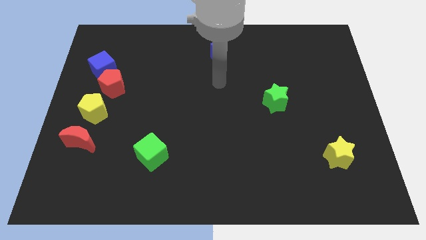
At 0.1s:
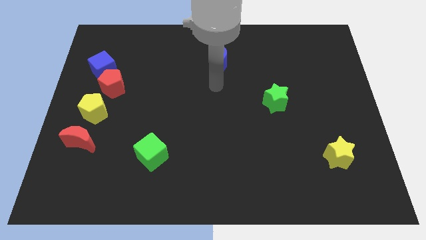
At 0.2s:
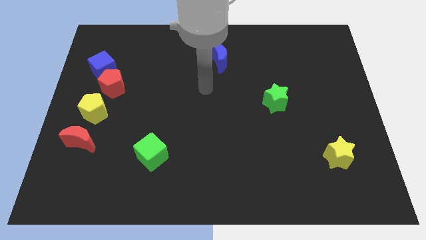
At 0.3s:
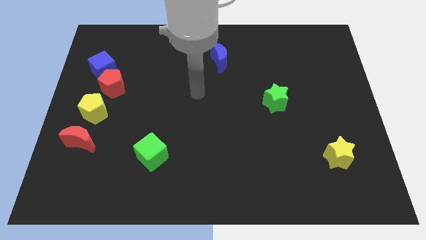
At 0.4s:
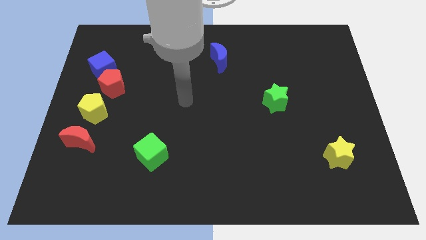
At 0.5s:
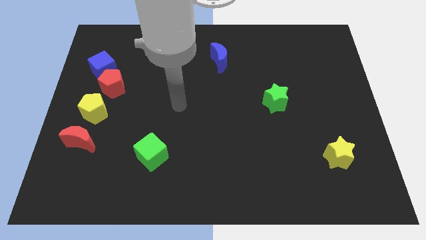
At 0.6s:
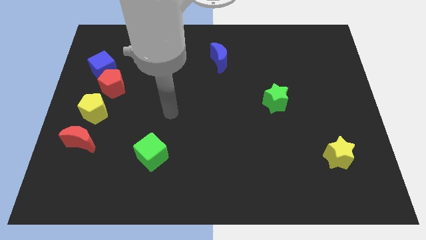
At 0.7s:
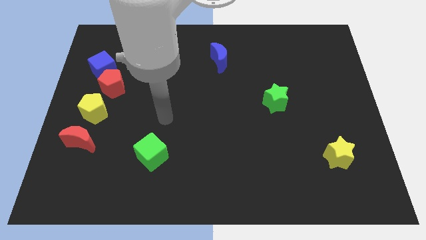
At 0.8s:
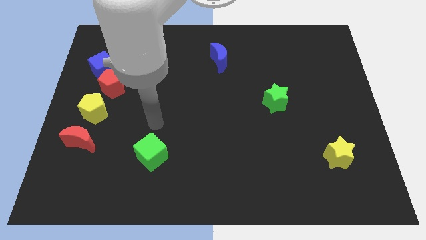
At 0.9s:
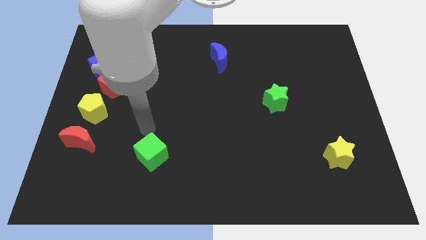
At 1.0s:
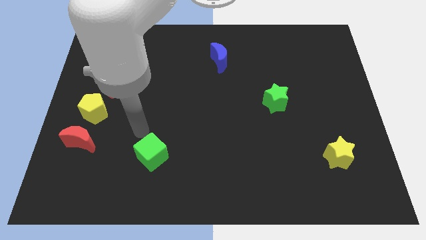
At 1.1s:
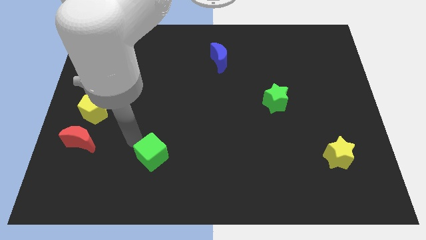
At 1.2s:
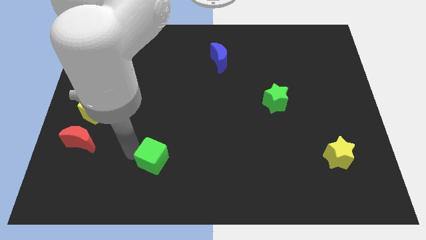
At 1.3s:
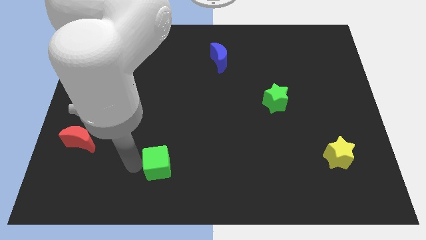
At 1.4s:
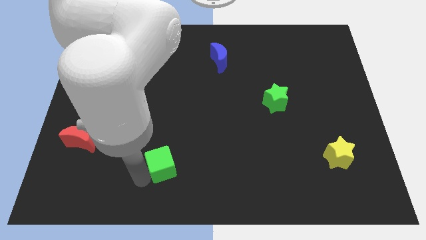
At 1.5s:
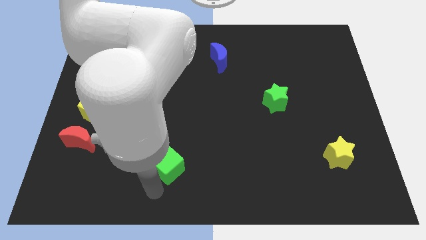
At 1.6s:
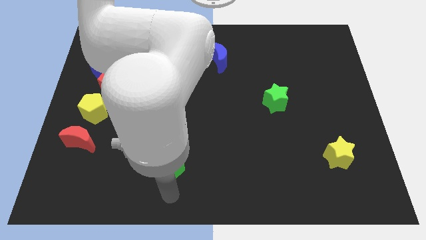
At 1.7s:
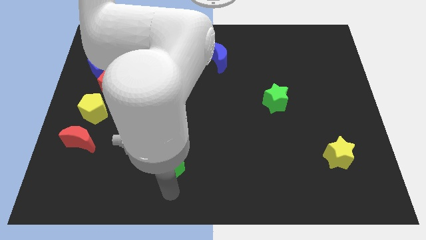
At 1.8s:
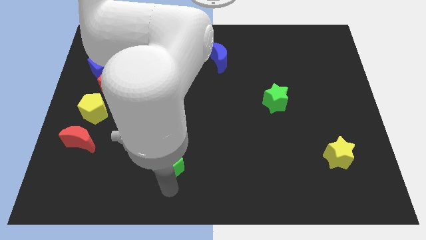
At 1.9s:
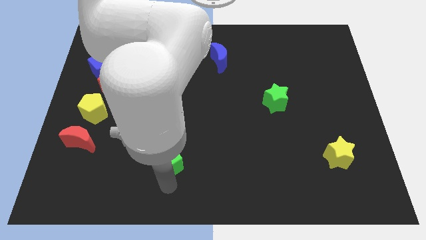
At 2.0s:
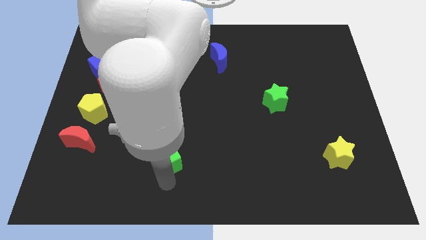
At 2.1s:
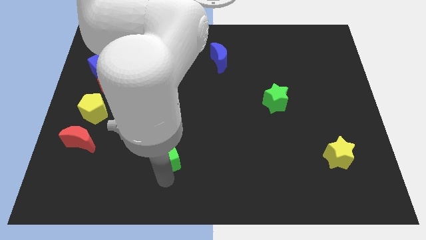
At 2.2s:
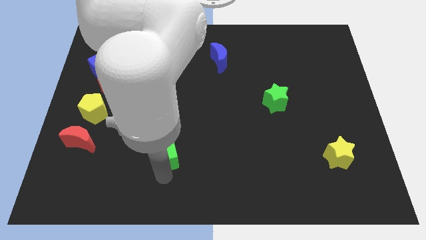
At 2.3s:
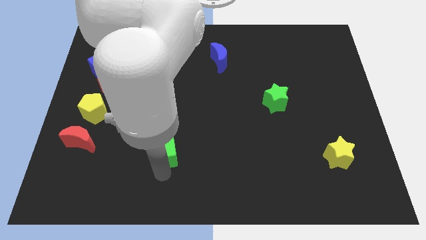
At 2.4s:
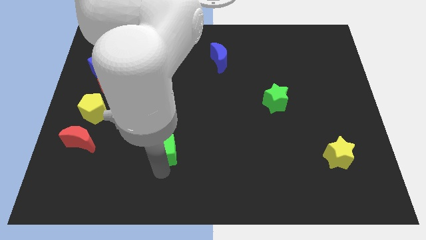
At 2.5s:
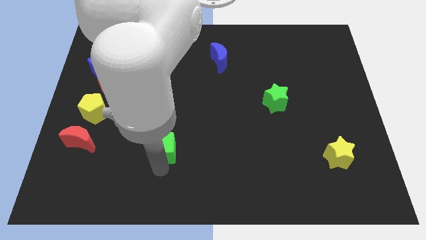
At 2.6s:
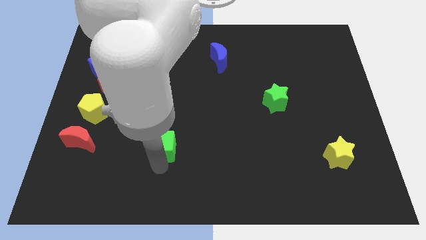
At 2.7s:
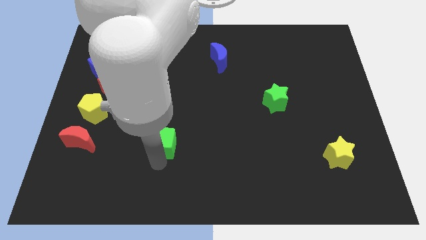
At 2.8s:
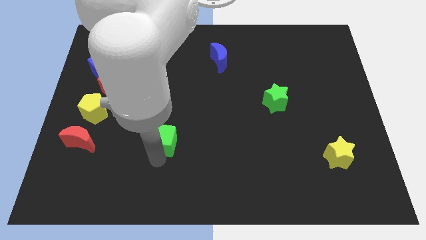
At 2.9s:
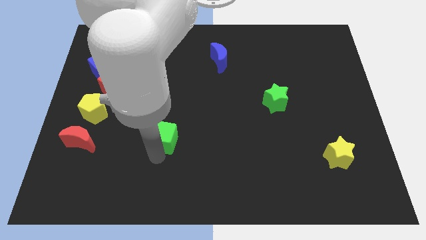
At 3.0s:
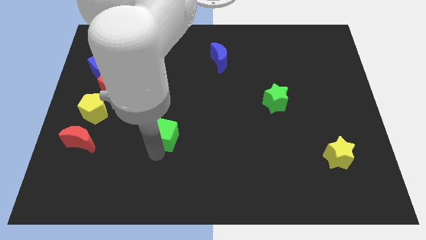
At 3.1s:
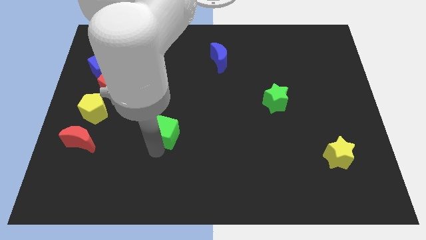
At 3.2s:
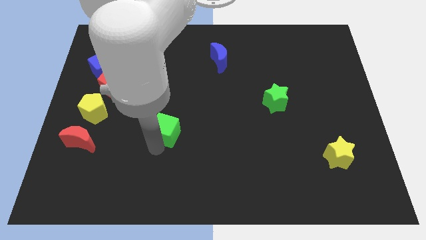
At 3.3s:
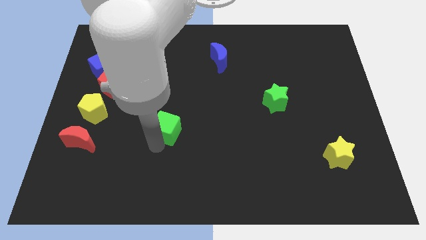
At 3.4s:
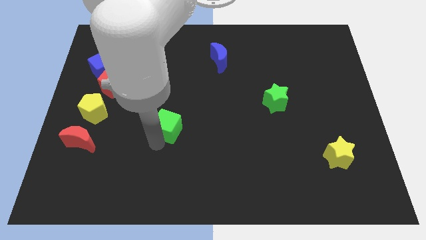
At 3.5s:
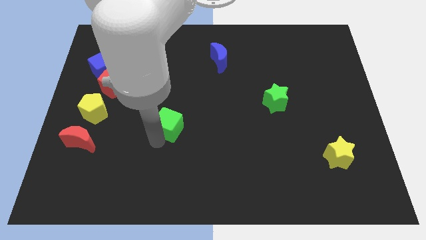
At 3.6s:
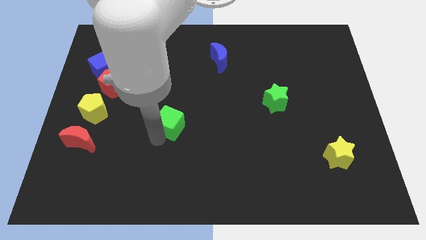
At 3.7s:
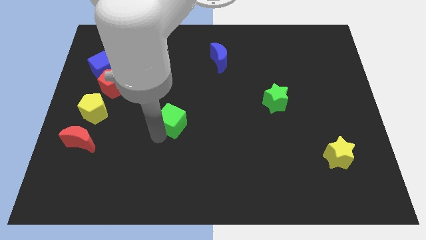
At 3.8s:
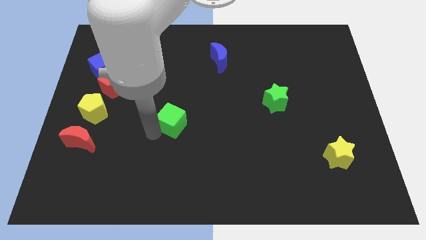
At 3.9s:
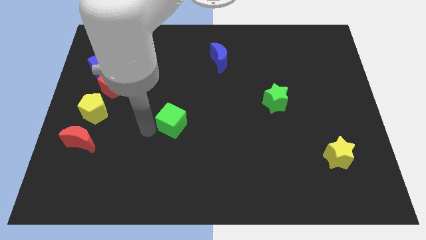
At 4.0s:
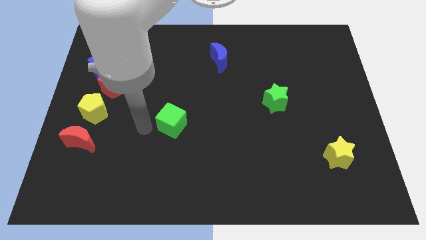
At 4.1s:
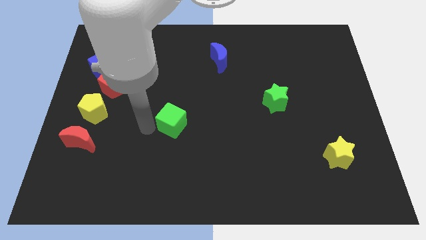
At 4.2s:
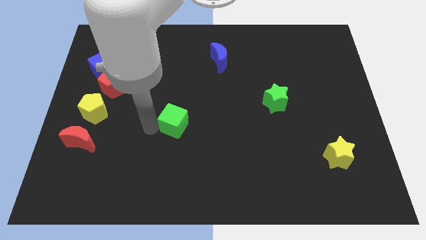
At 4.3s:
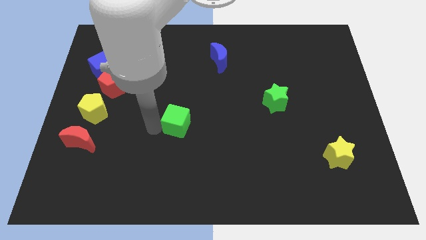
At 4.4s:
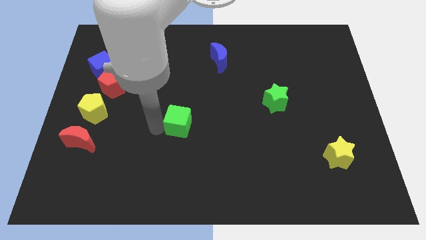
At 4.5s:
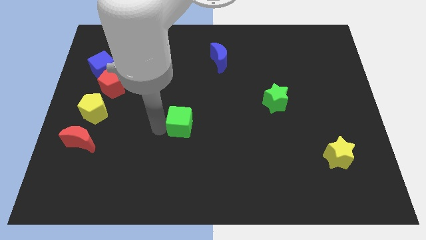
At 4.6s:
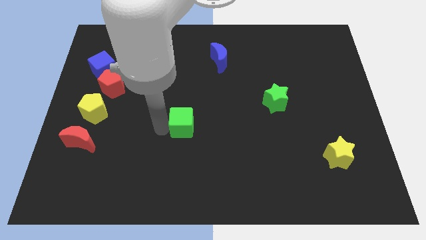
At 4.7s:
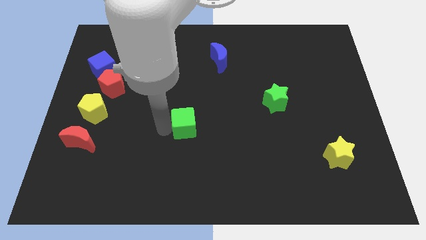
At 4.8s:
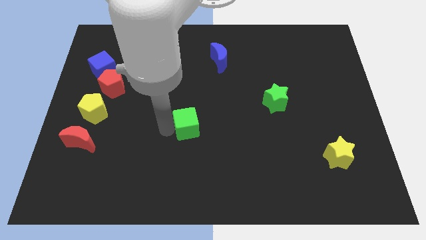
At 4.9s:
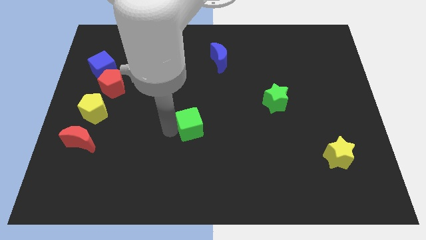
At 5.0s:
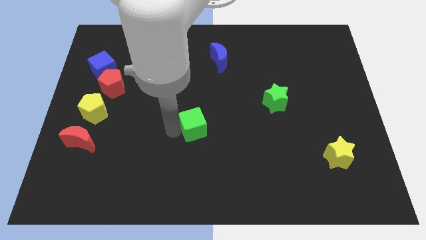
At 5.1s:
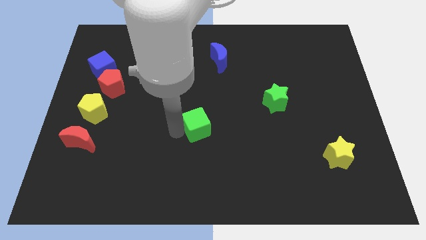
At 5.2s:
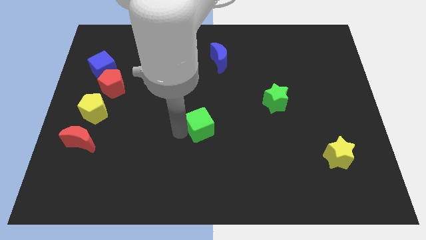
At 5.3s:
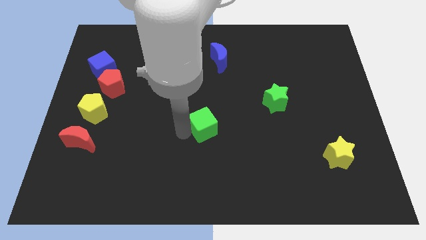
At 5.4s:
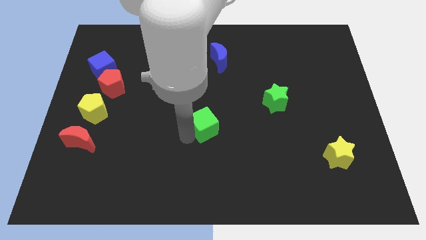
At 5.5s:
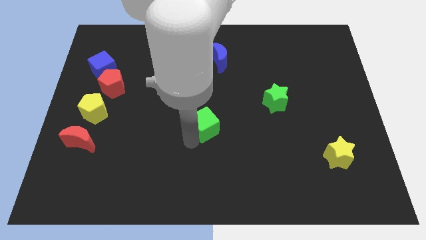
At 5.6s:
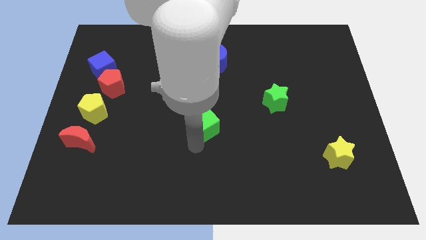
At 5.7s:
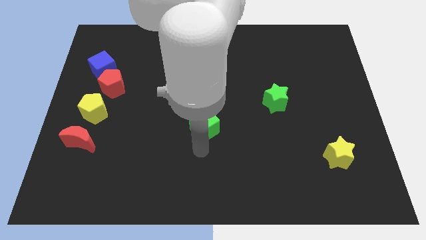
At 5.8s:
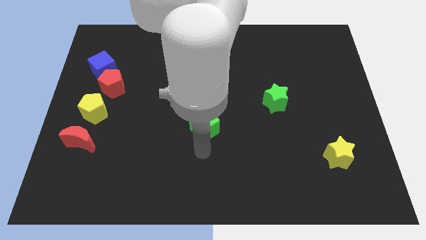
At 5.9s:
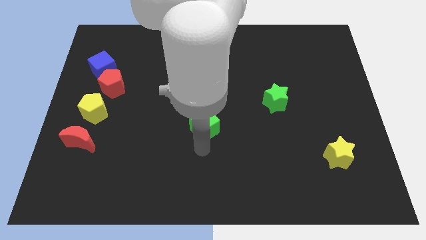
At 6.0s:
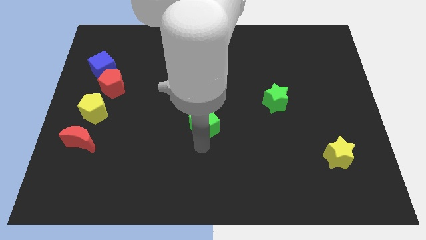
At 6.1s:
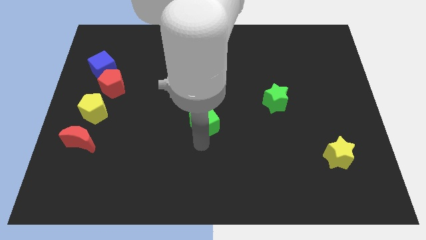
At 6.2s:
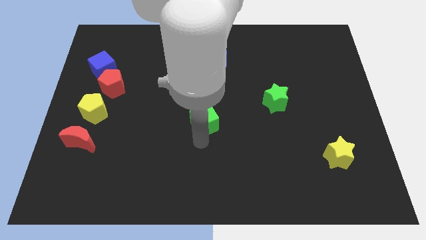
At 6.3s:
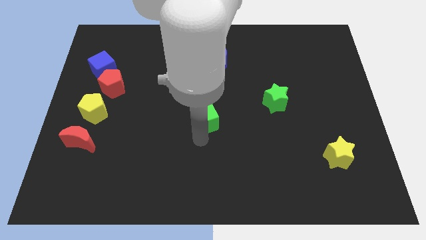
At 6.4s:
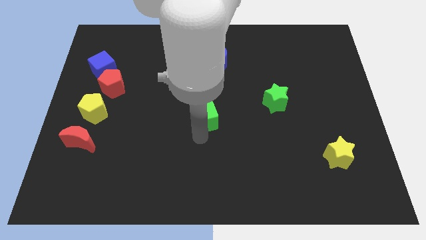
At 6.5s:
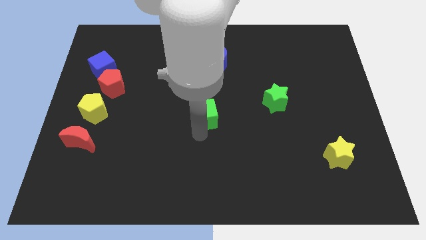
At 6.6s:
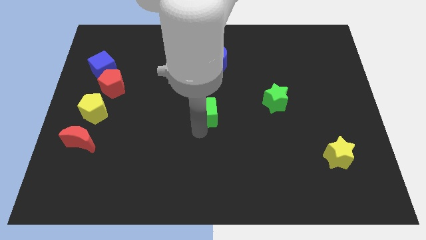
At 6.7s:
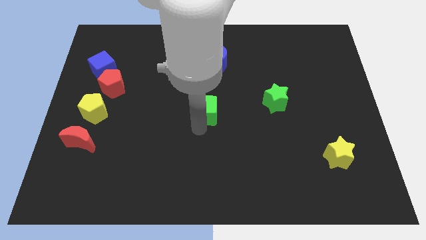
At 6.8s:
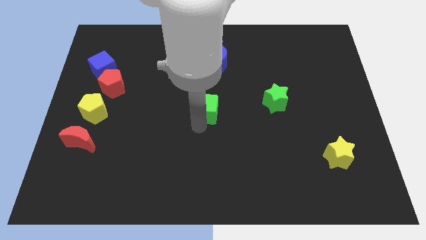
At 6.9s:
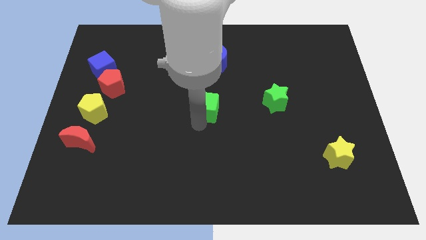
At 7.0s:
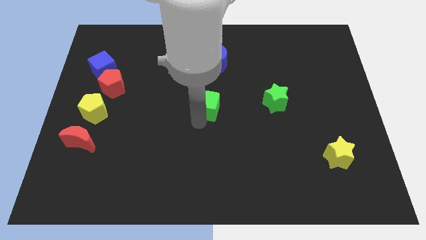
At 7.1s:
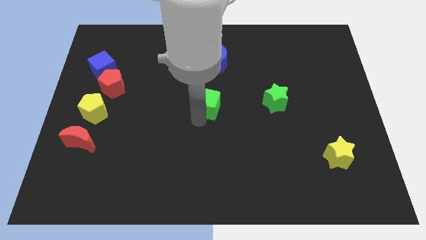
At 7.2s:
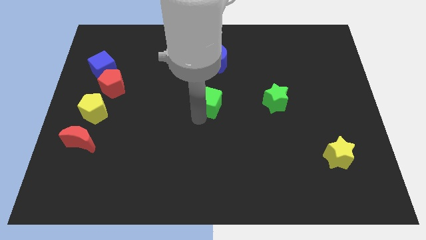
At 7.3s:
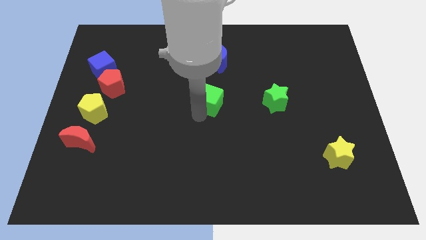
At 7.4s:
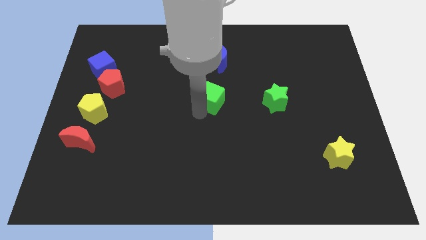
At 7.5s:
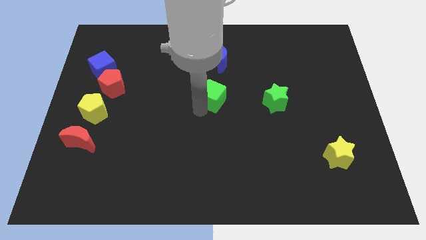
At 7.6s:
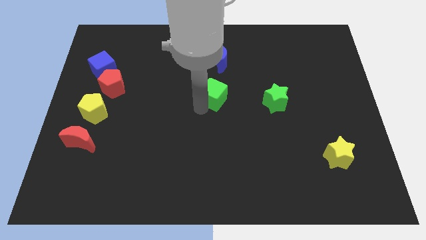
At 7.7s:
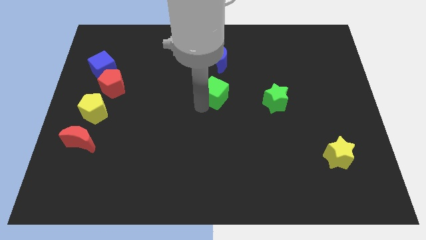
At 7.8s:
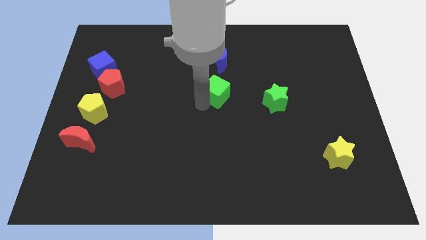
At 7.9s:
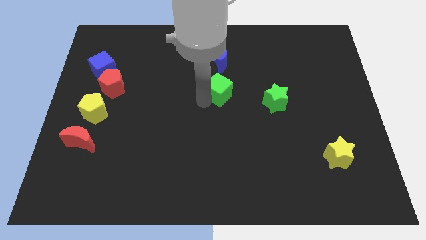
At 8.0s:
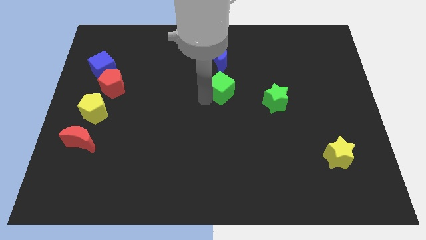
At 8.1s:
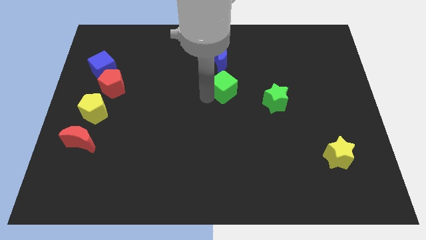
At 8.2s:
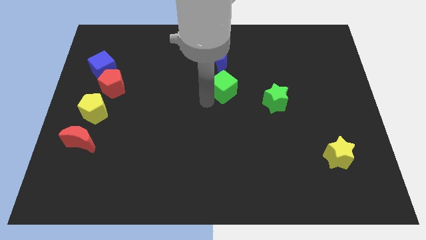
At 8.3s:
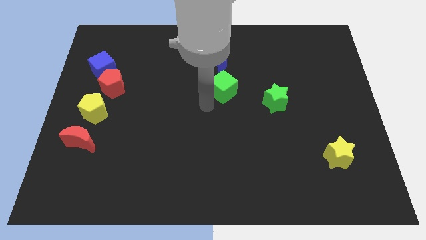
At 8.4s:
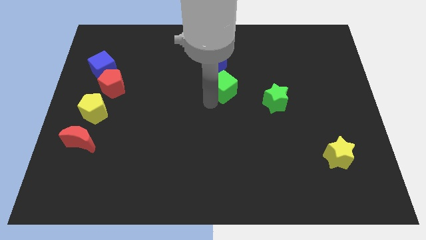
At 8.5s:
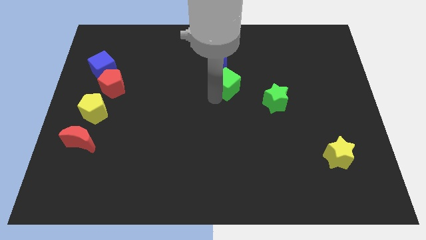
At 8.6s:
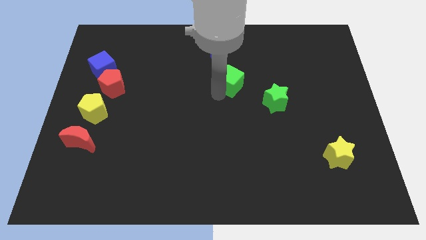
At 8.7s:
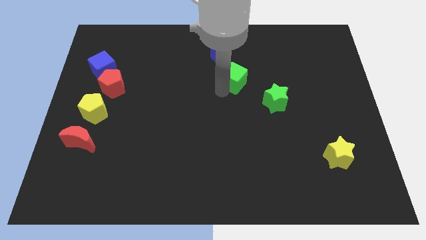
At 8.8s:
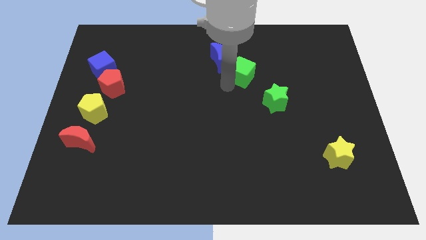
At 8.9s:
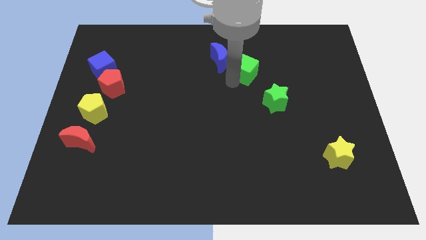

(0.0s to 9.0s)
move the green cube to the right of the blue moon
